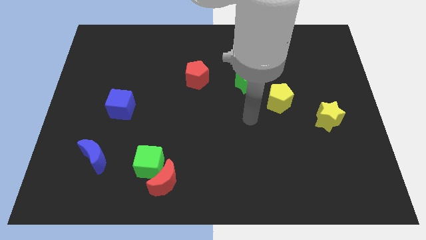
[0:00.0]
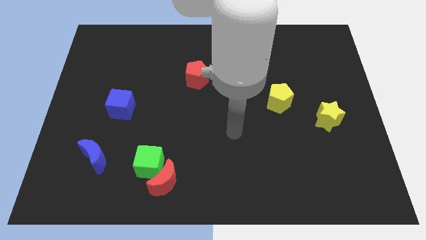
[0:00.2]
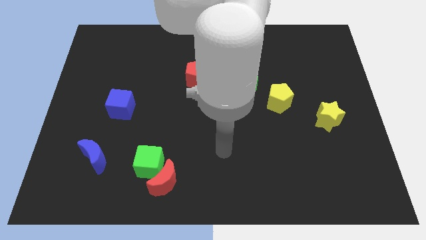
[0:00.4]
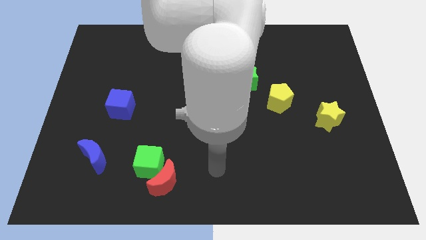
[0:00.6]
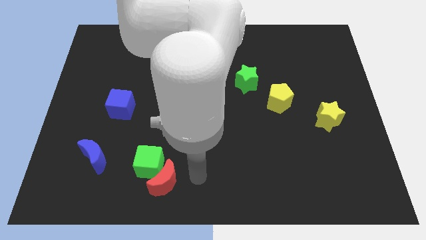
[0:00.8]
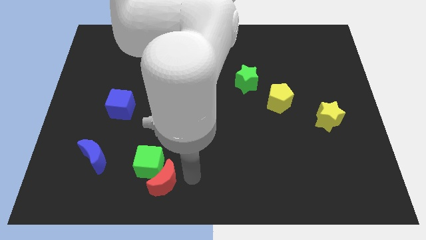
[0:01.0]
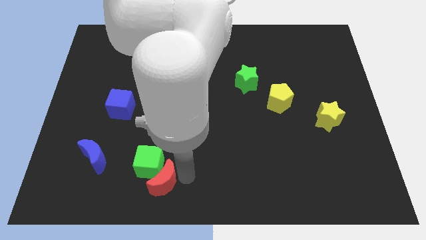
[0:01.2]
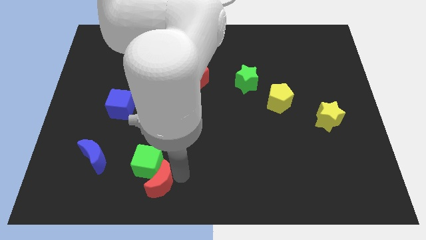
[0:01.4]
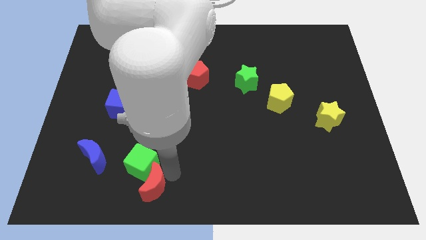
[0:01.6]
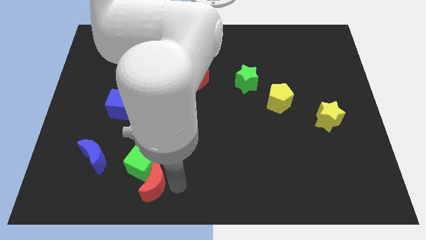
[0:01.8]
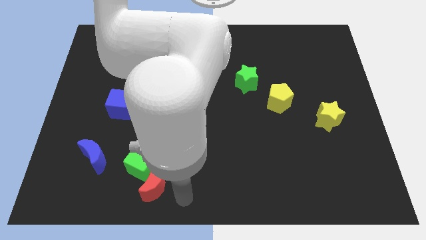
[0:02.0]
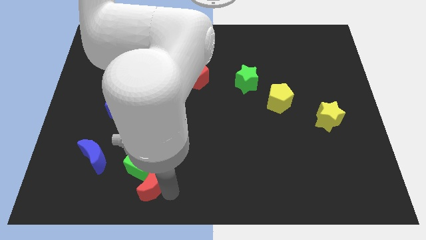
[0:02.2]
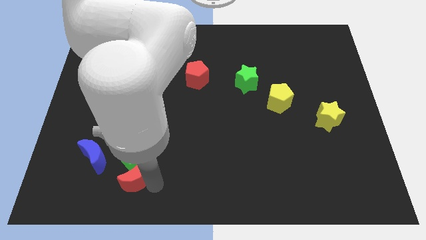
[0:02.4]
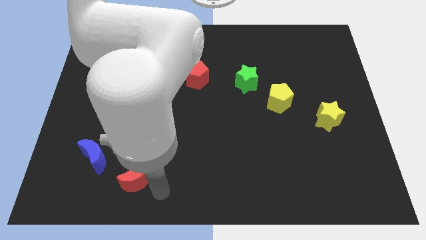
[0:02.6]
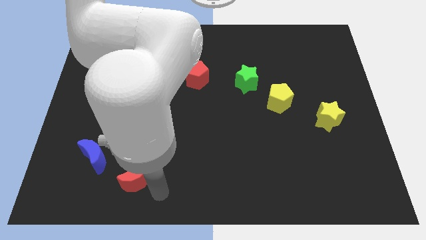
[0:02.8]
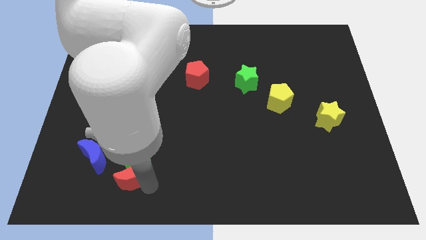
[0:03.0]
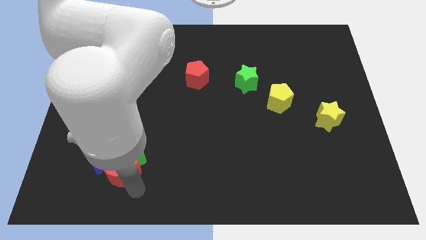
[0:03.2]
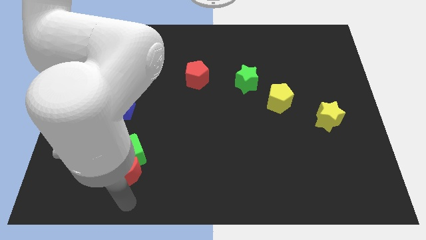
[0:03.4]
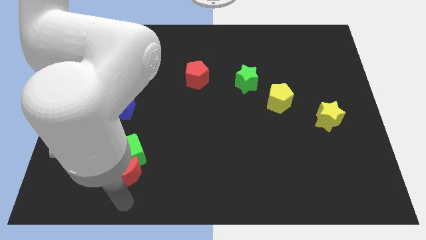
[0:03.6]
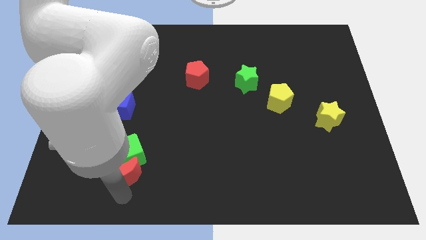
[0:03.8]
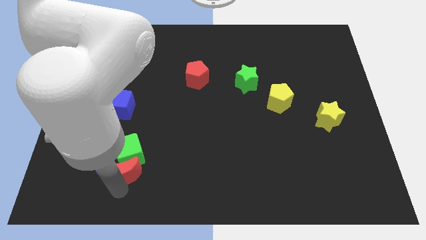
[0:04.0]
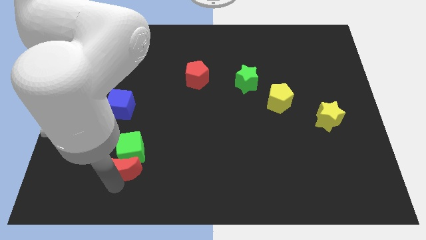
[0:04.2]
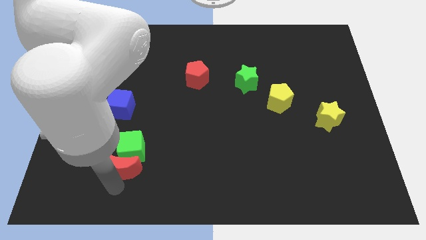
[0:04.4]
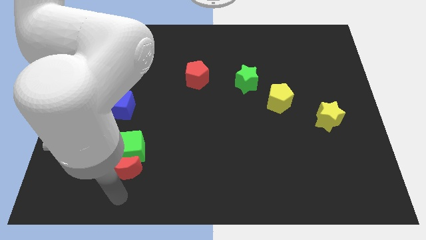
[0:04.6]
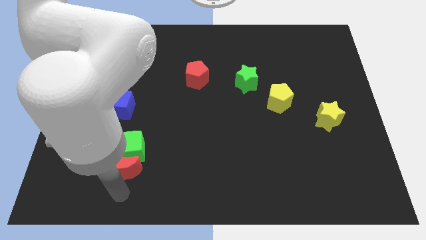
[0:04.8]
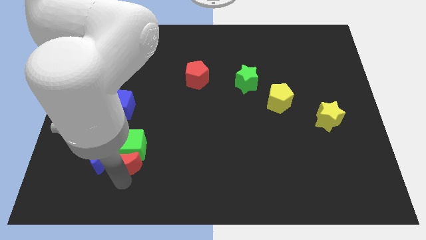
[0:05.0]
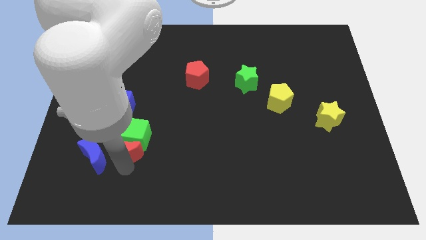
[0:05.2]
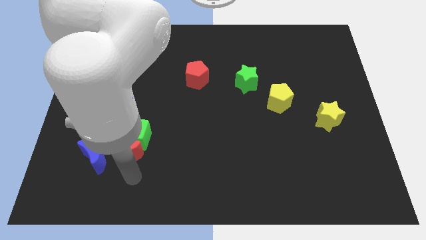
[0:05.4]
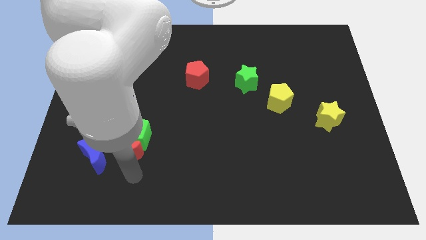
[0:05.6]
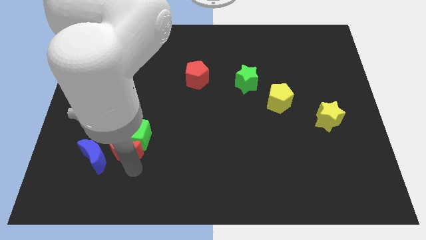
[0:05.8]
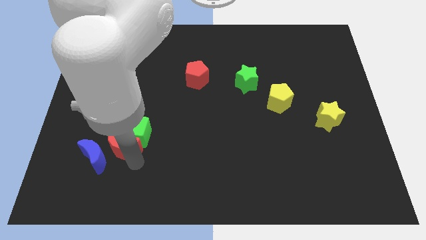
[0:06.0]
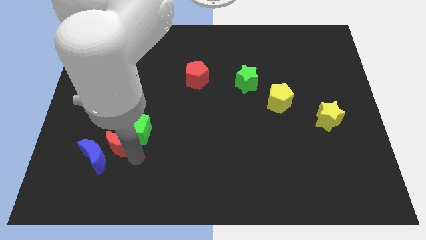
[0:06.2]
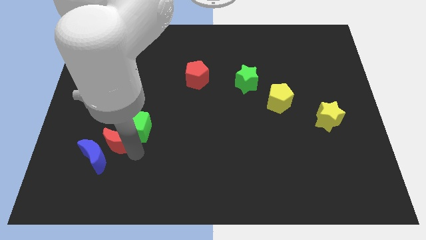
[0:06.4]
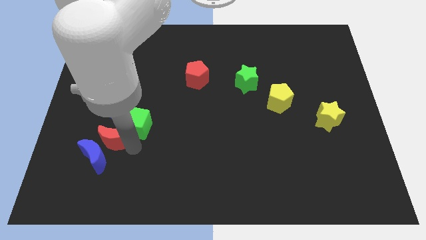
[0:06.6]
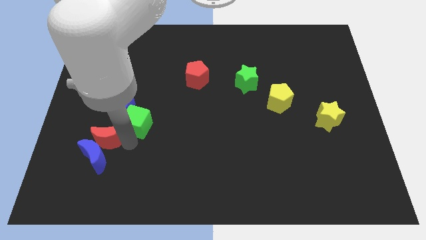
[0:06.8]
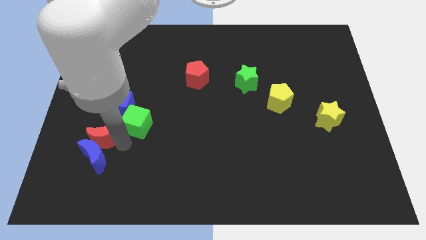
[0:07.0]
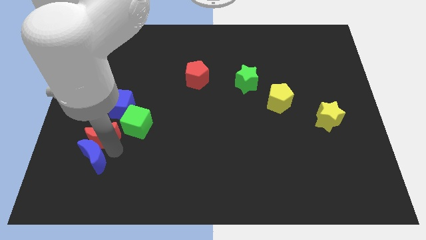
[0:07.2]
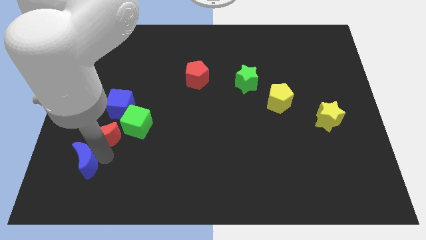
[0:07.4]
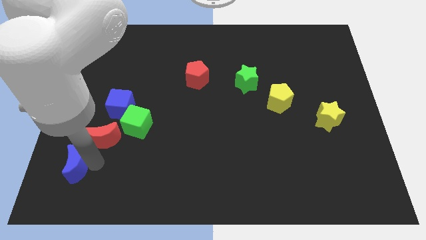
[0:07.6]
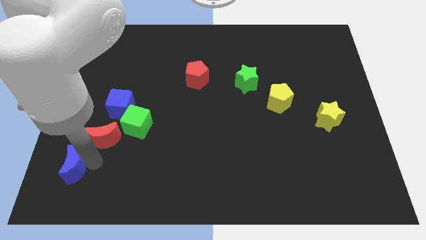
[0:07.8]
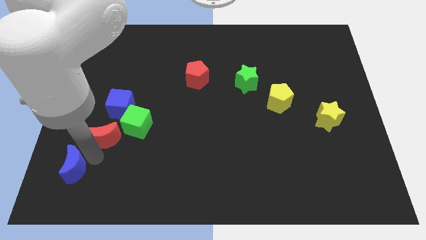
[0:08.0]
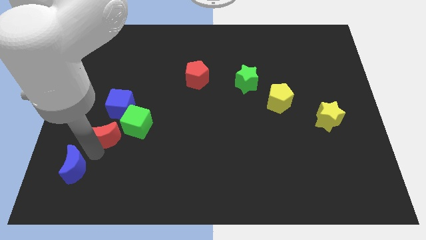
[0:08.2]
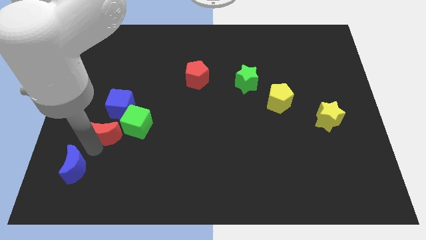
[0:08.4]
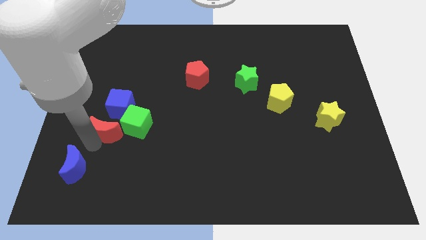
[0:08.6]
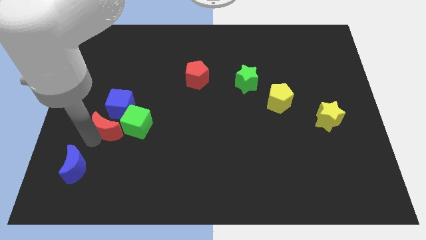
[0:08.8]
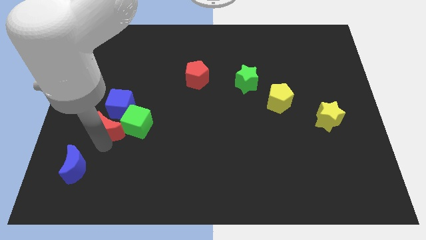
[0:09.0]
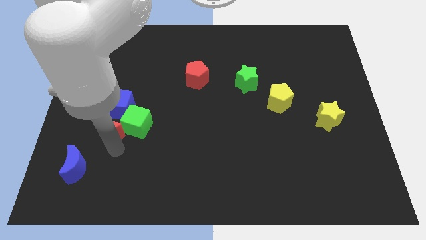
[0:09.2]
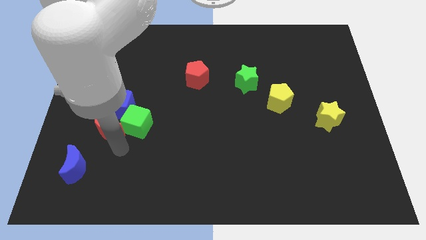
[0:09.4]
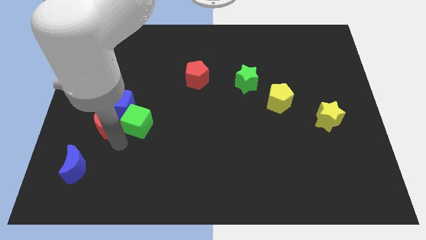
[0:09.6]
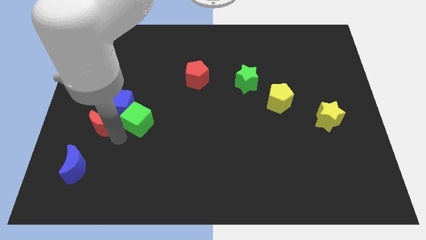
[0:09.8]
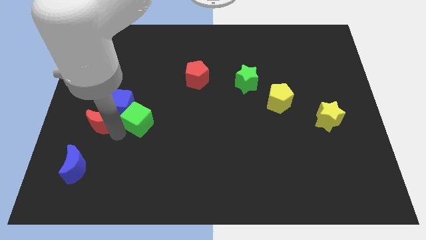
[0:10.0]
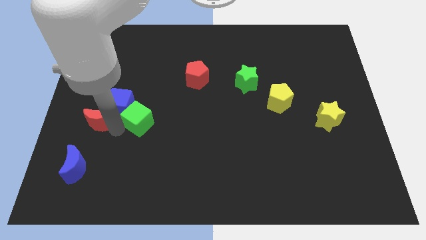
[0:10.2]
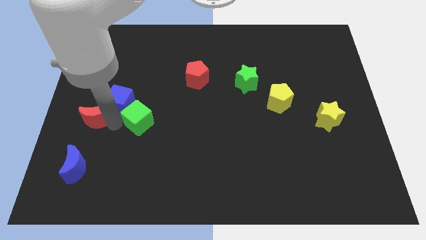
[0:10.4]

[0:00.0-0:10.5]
slide the red moon to the left side

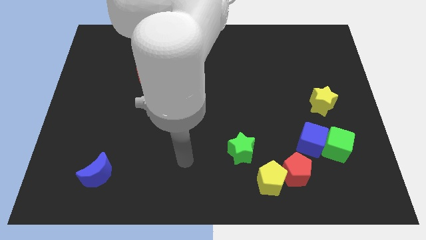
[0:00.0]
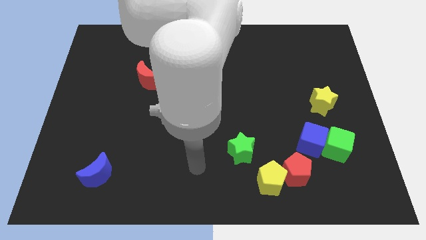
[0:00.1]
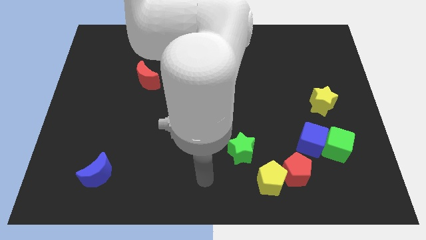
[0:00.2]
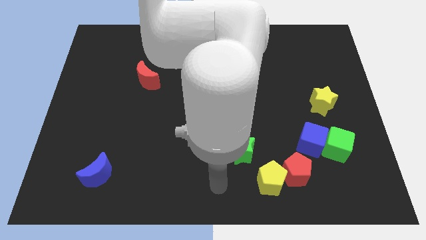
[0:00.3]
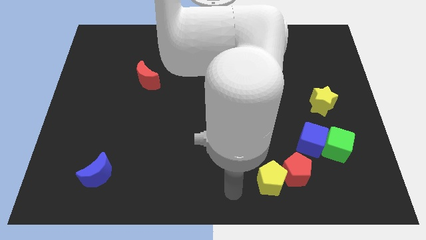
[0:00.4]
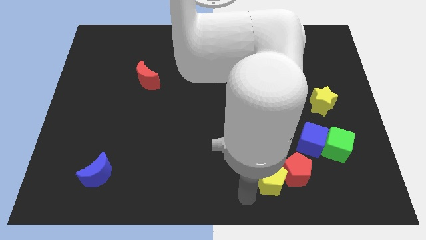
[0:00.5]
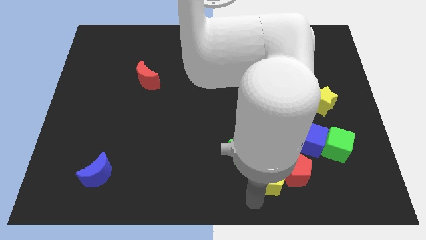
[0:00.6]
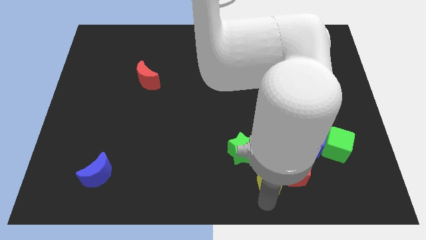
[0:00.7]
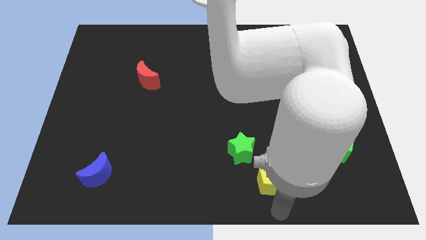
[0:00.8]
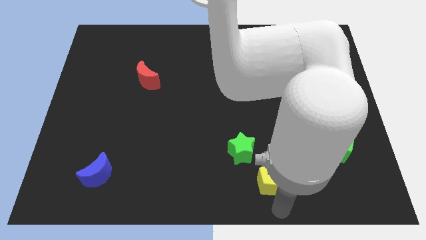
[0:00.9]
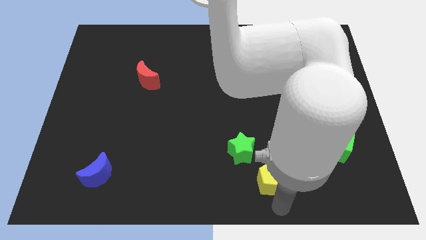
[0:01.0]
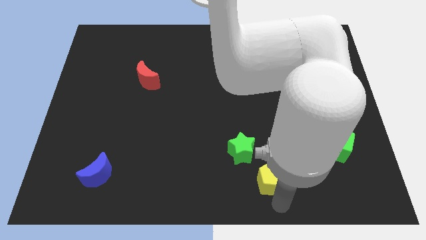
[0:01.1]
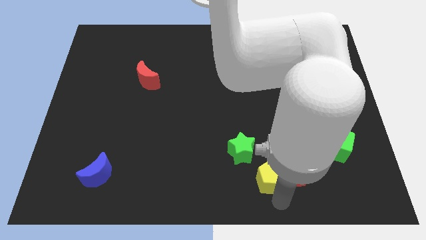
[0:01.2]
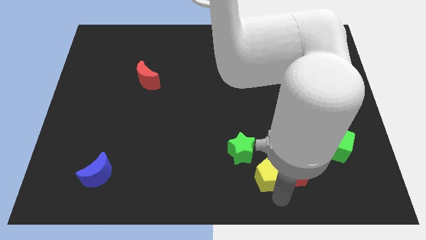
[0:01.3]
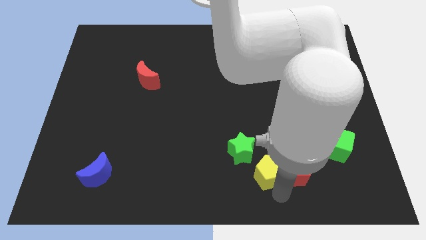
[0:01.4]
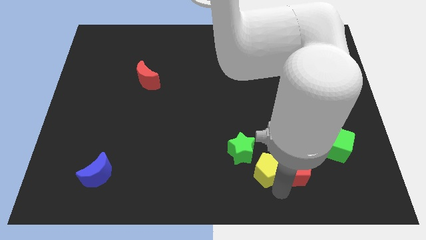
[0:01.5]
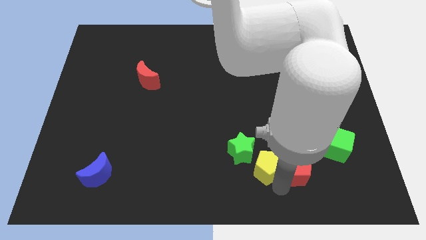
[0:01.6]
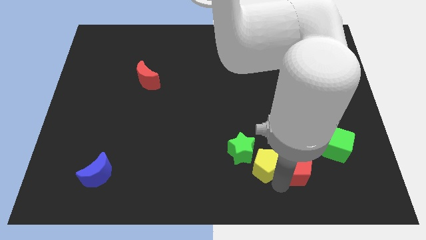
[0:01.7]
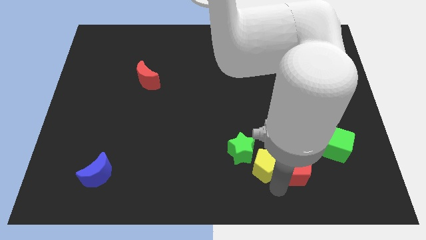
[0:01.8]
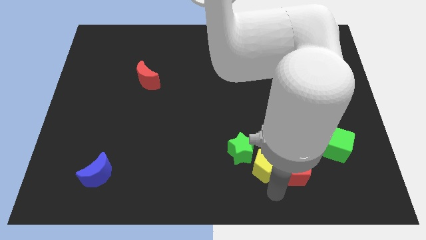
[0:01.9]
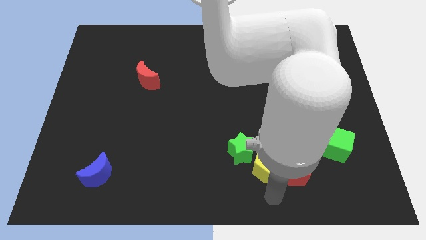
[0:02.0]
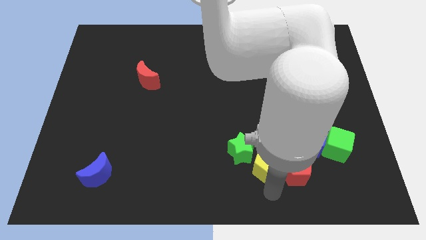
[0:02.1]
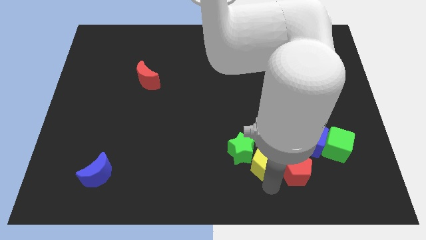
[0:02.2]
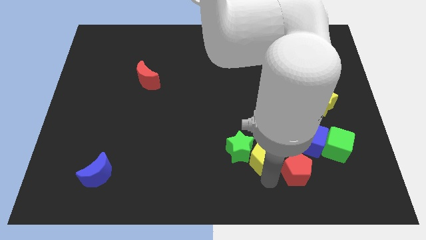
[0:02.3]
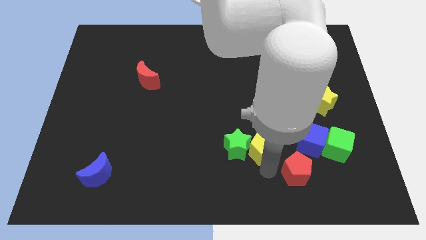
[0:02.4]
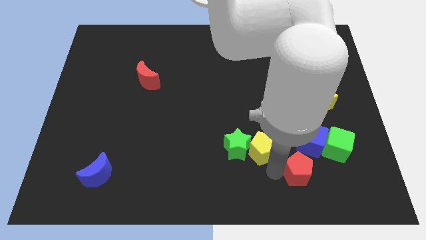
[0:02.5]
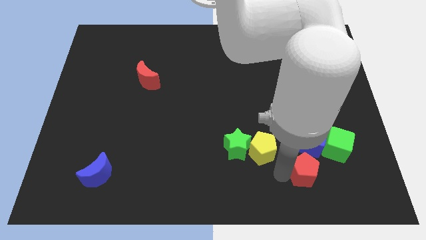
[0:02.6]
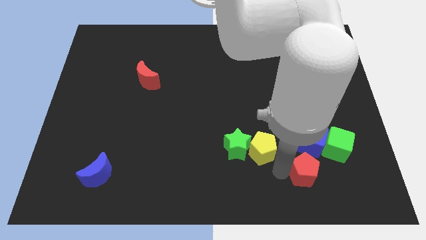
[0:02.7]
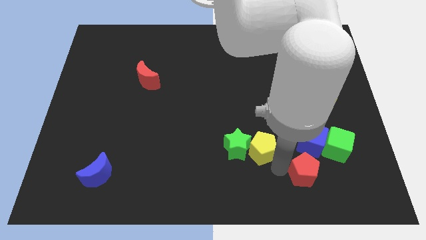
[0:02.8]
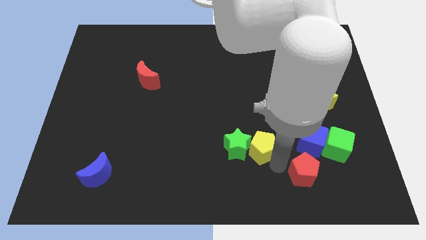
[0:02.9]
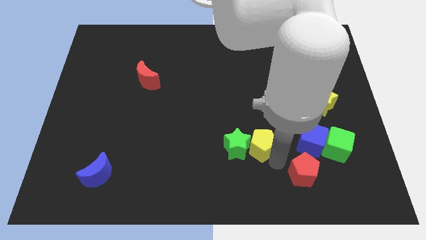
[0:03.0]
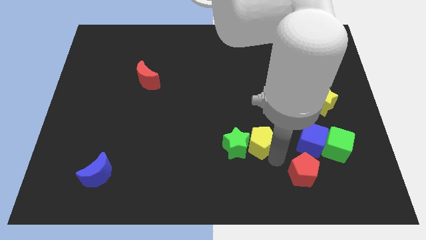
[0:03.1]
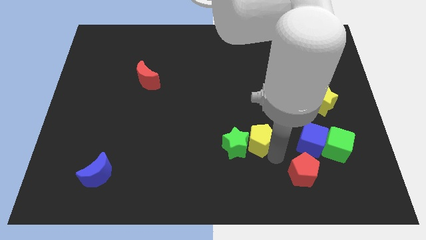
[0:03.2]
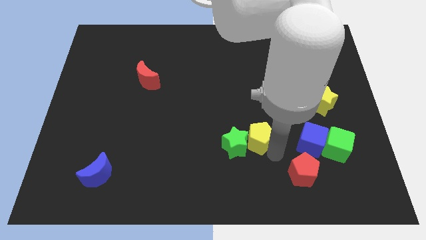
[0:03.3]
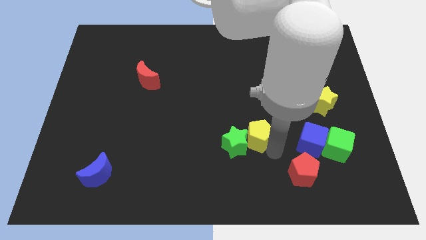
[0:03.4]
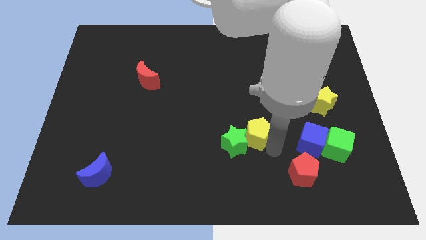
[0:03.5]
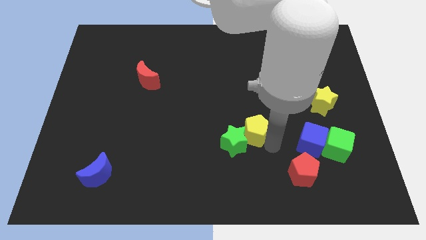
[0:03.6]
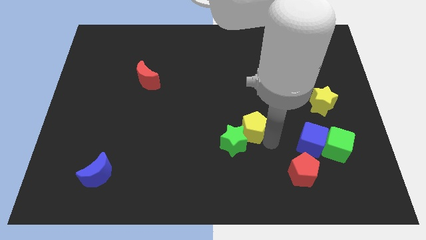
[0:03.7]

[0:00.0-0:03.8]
move the yellow pentagon to the middle of the board
